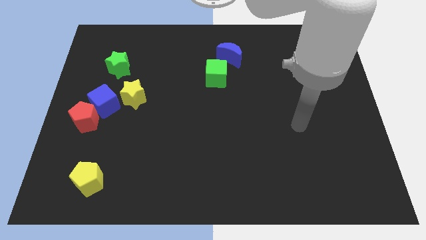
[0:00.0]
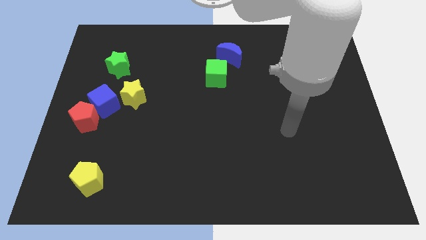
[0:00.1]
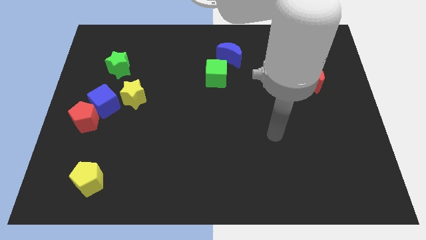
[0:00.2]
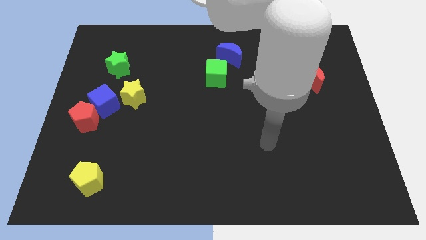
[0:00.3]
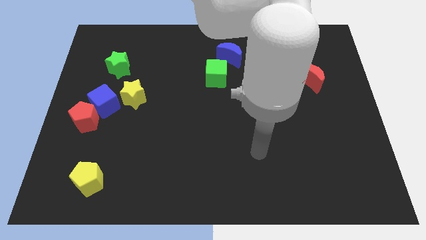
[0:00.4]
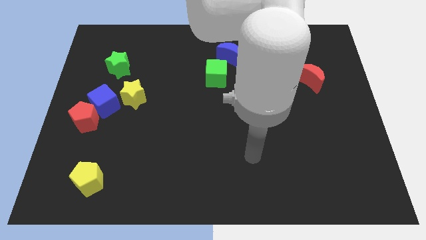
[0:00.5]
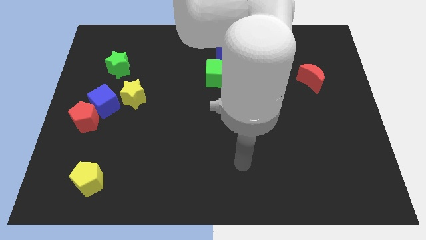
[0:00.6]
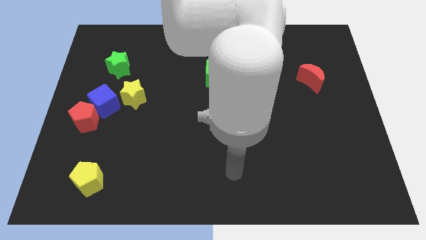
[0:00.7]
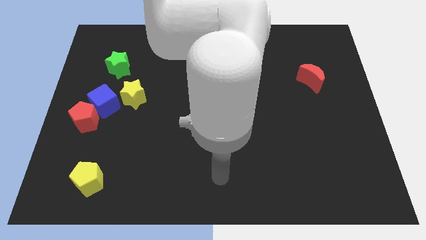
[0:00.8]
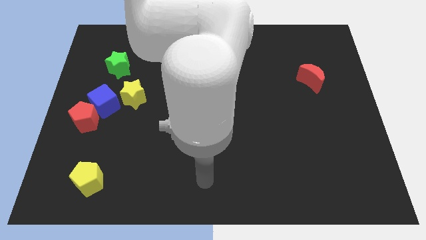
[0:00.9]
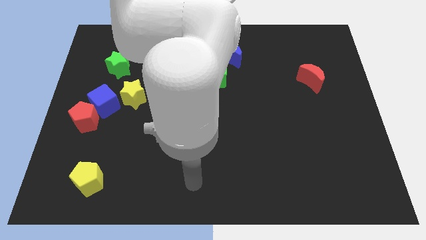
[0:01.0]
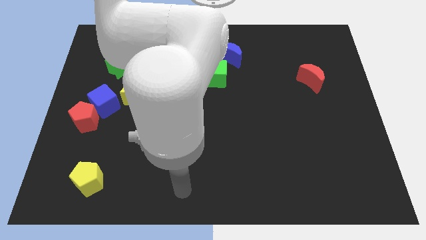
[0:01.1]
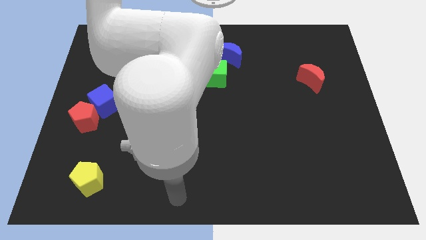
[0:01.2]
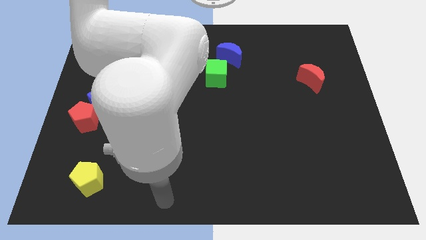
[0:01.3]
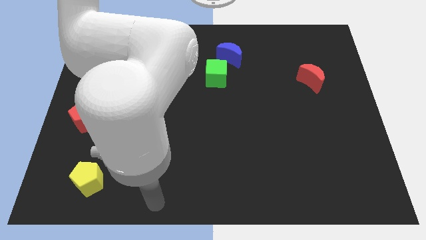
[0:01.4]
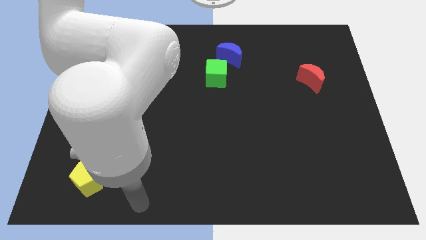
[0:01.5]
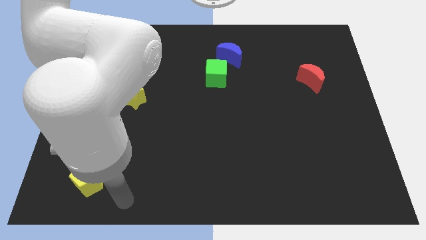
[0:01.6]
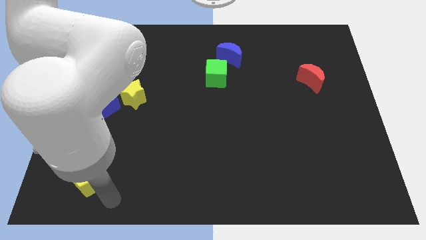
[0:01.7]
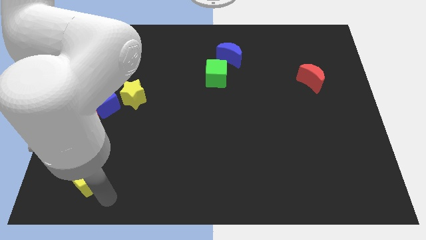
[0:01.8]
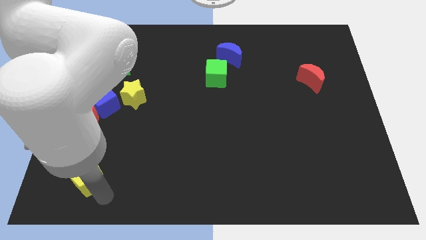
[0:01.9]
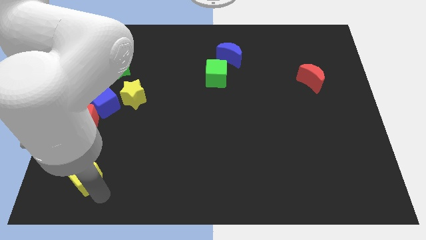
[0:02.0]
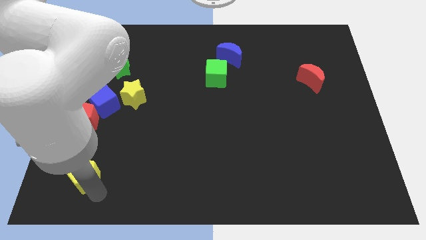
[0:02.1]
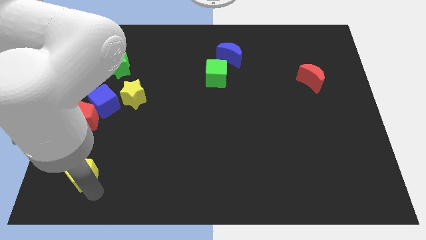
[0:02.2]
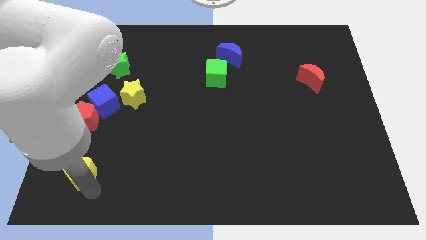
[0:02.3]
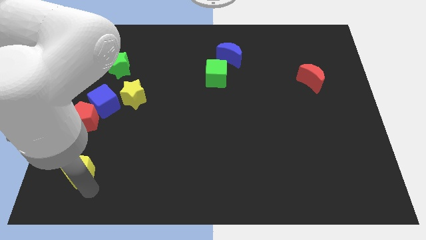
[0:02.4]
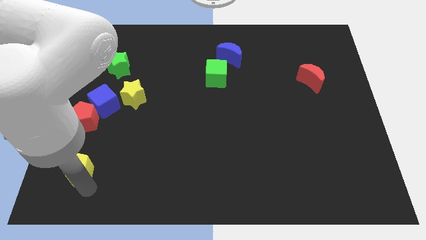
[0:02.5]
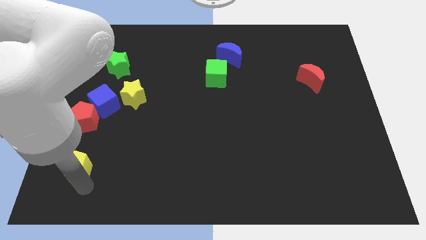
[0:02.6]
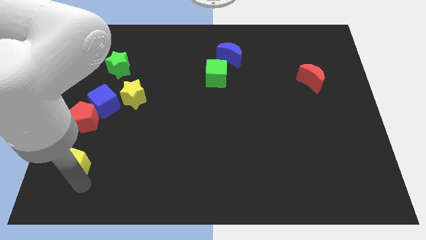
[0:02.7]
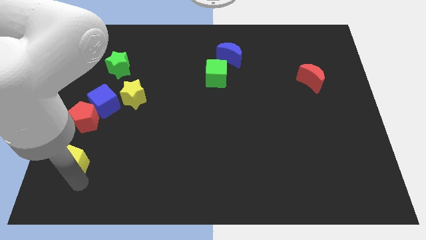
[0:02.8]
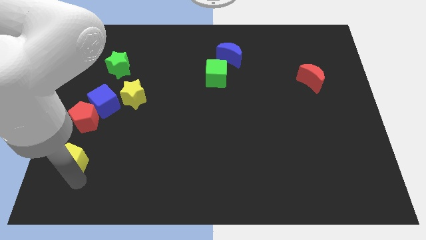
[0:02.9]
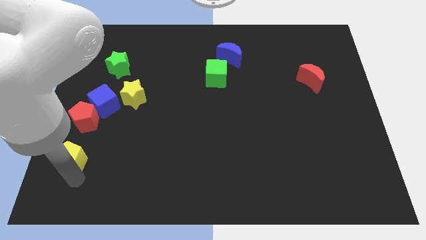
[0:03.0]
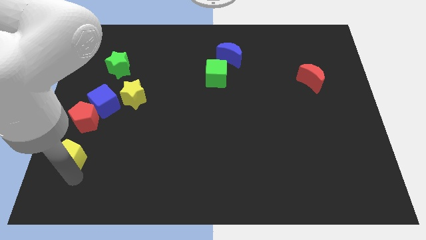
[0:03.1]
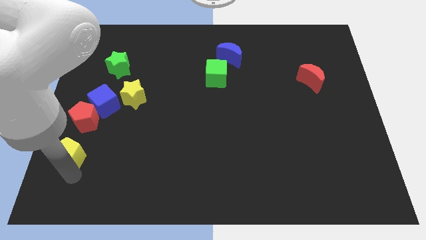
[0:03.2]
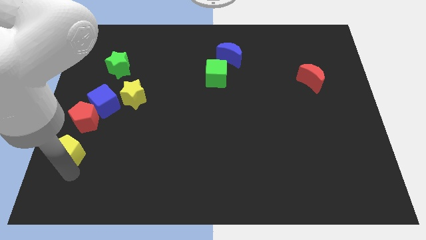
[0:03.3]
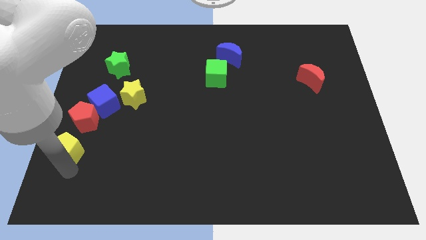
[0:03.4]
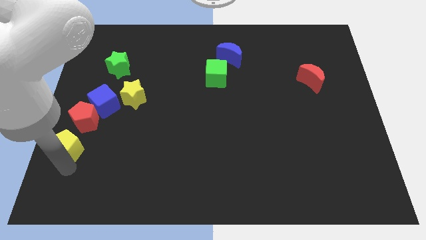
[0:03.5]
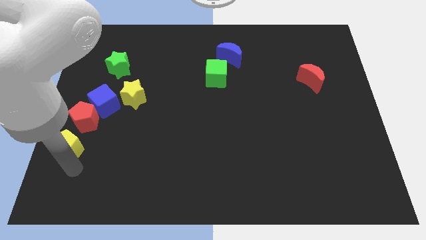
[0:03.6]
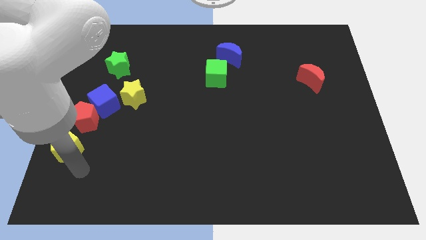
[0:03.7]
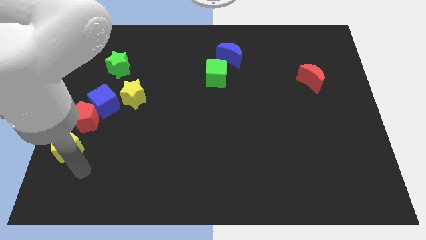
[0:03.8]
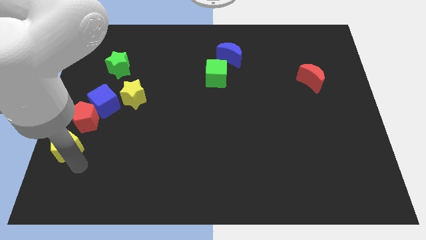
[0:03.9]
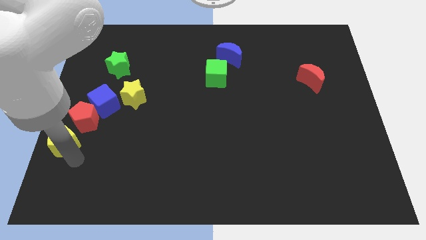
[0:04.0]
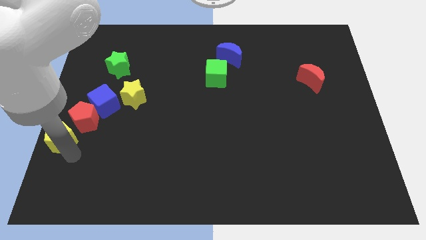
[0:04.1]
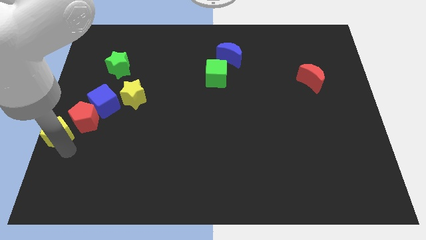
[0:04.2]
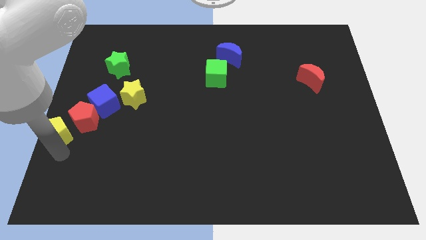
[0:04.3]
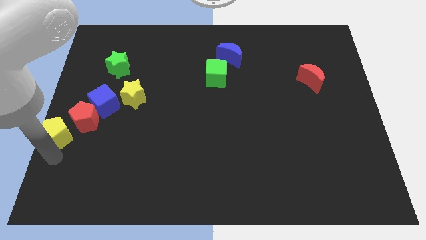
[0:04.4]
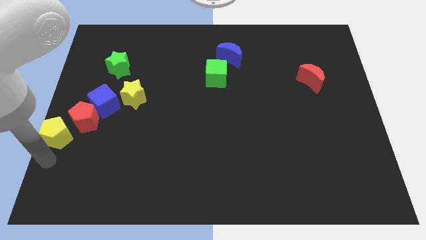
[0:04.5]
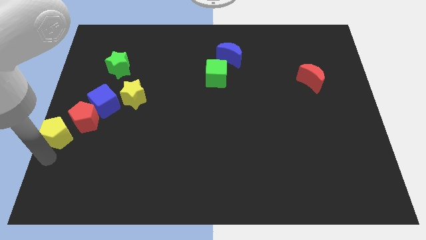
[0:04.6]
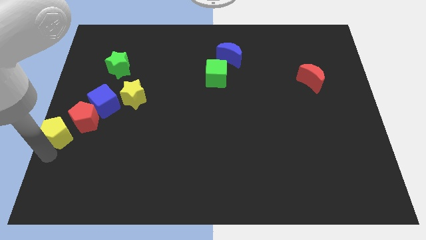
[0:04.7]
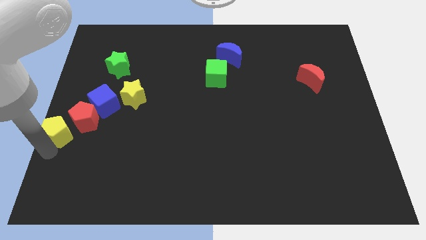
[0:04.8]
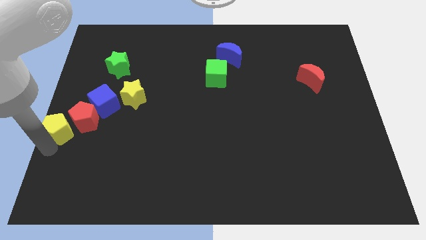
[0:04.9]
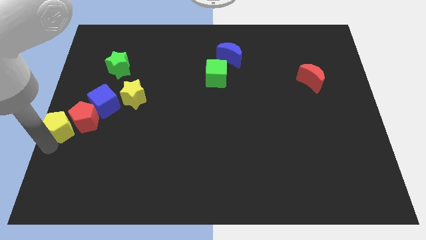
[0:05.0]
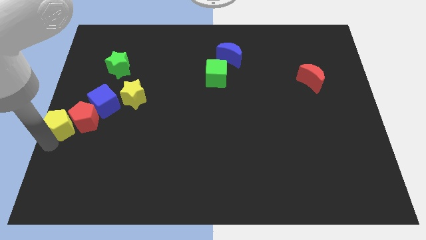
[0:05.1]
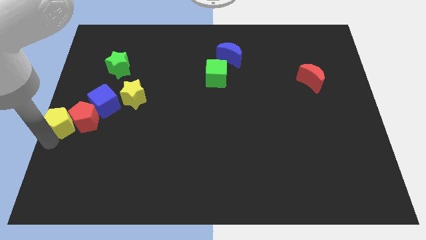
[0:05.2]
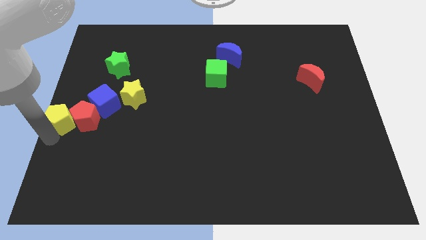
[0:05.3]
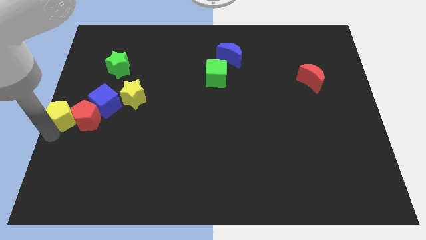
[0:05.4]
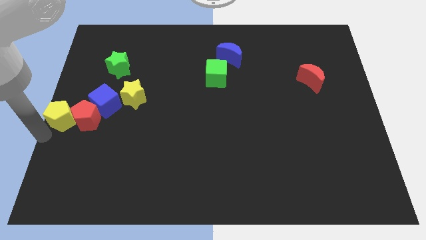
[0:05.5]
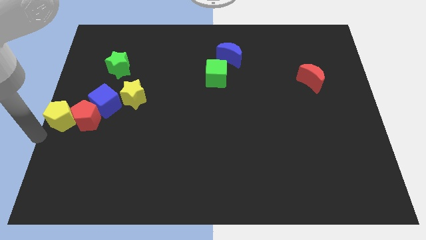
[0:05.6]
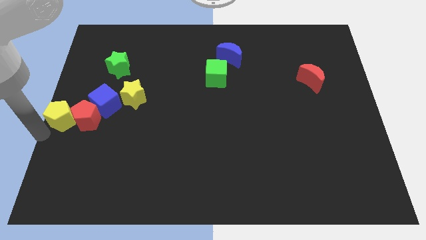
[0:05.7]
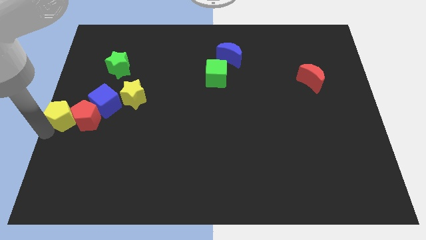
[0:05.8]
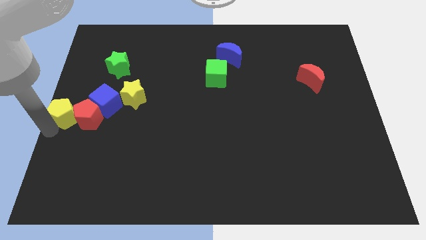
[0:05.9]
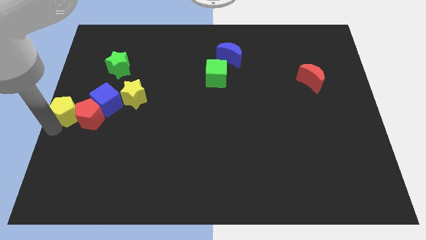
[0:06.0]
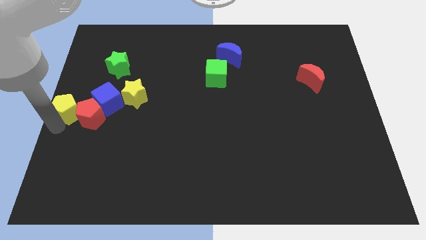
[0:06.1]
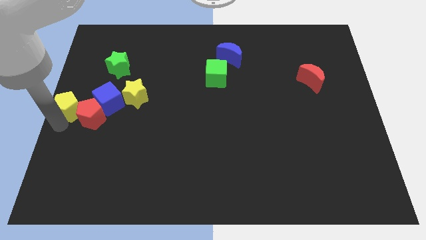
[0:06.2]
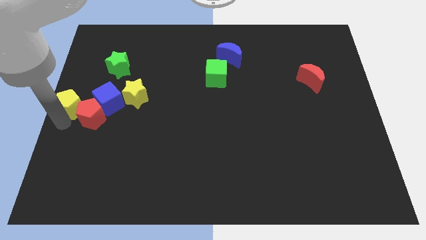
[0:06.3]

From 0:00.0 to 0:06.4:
slide the yellow pentagon to the left side of the yellow star
